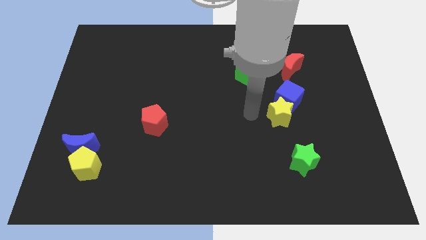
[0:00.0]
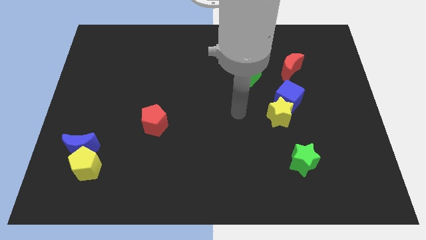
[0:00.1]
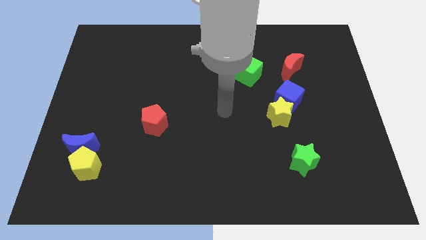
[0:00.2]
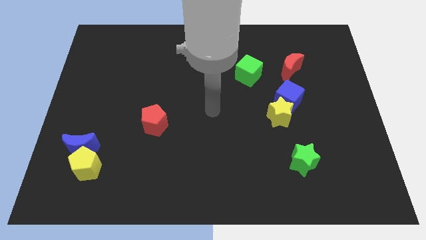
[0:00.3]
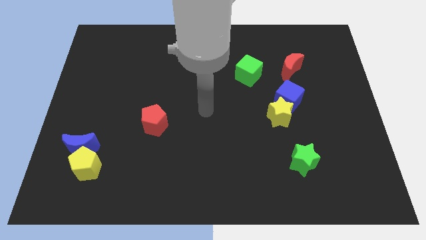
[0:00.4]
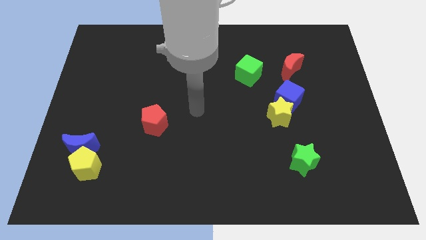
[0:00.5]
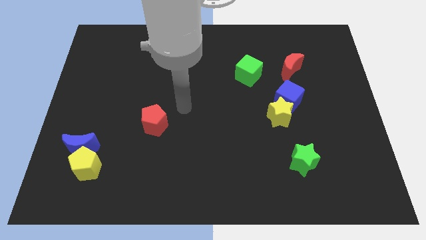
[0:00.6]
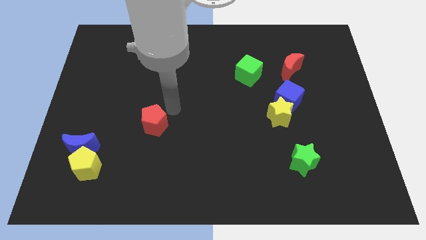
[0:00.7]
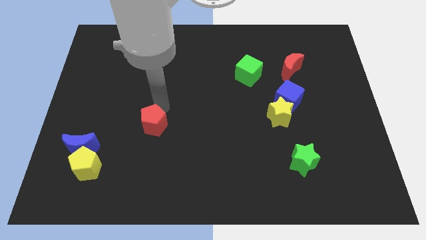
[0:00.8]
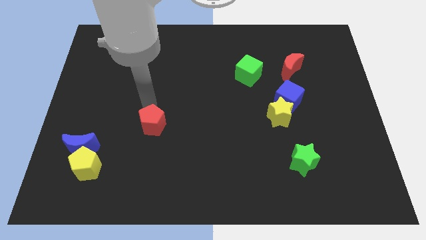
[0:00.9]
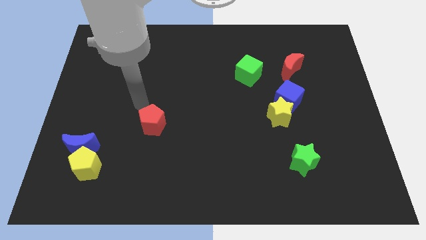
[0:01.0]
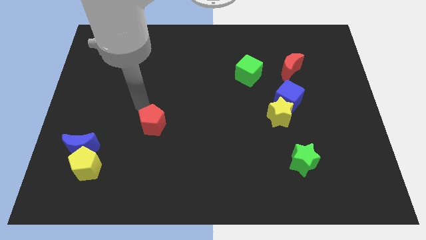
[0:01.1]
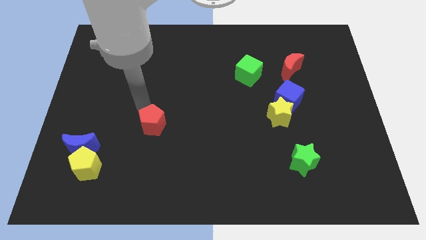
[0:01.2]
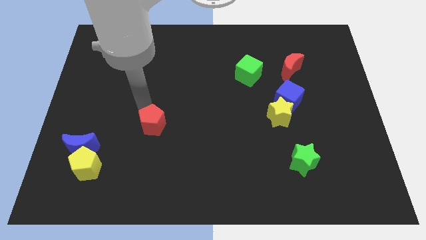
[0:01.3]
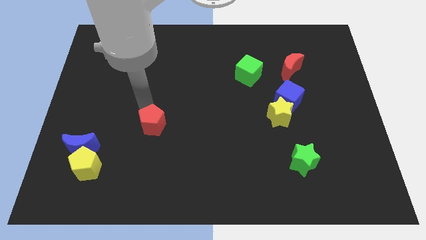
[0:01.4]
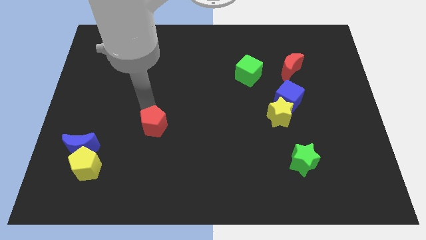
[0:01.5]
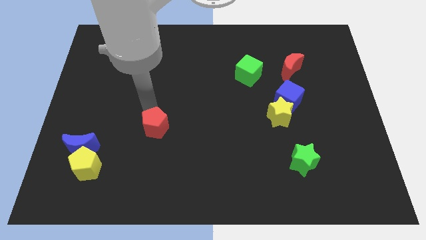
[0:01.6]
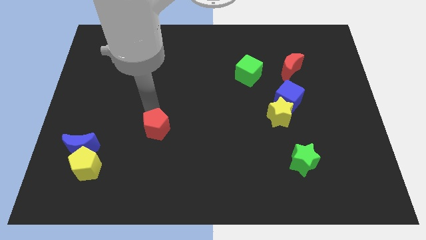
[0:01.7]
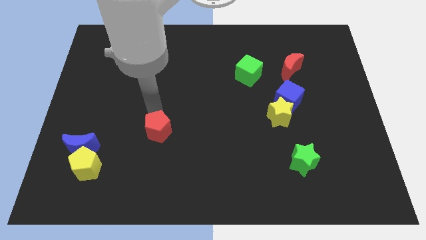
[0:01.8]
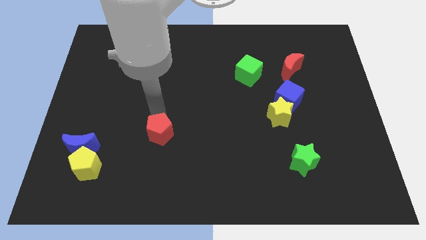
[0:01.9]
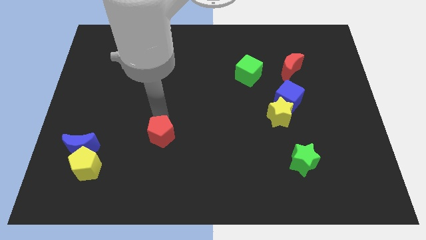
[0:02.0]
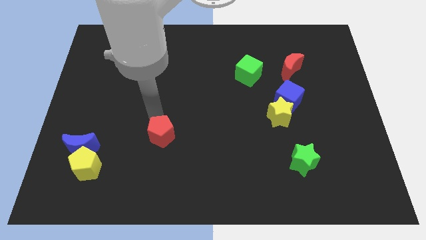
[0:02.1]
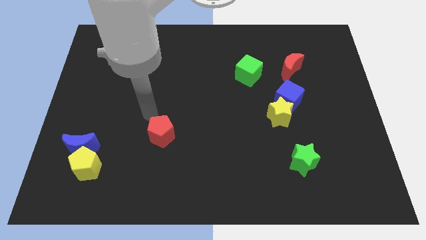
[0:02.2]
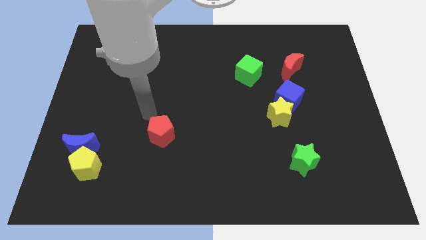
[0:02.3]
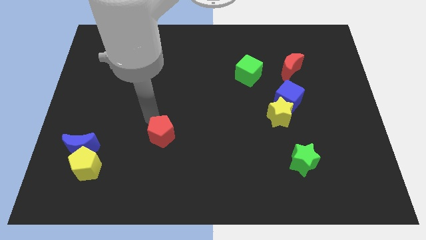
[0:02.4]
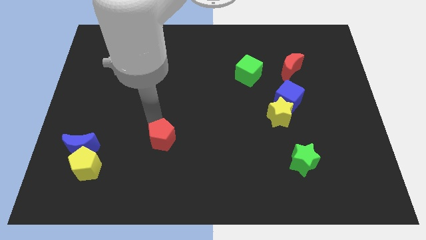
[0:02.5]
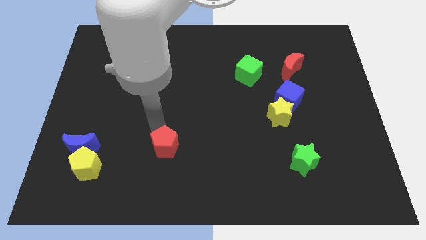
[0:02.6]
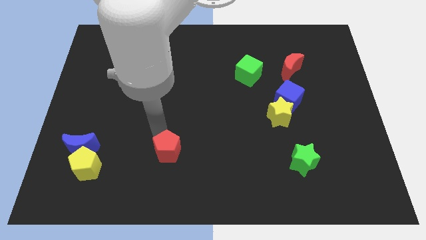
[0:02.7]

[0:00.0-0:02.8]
slightly slide the red pentagon down and then to the right

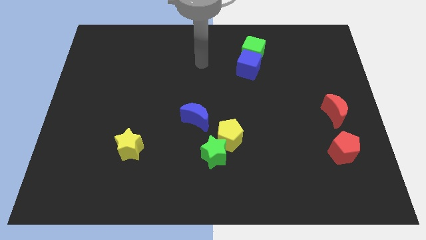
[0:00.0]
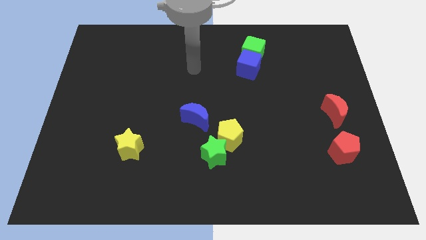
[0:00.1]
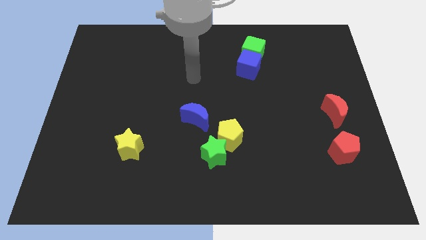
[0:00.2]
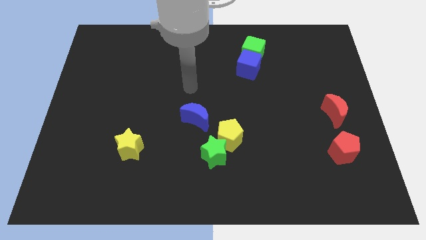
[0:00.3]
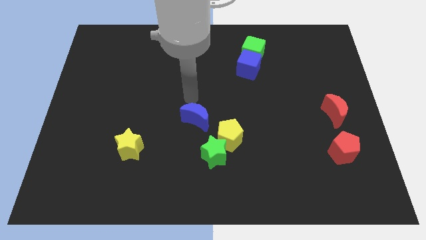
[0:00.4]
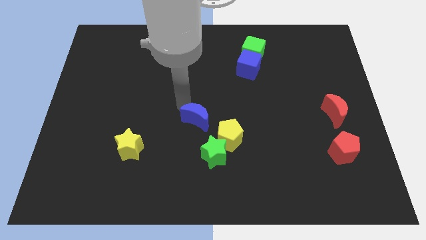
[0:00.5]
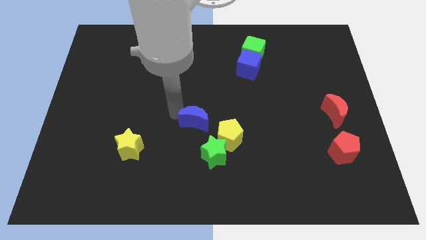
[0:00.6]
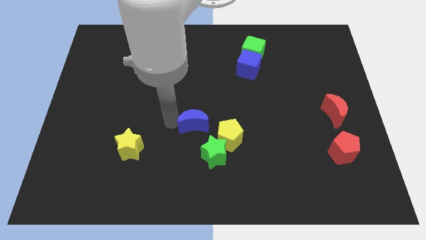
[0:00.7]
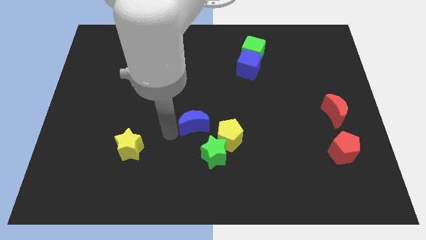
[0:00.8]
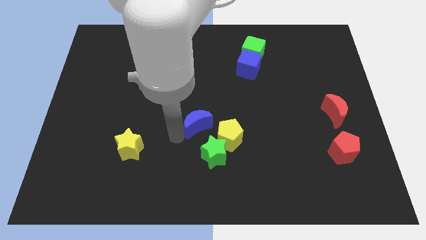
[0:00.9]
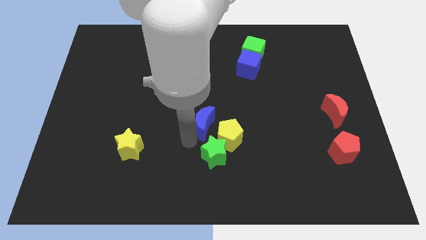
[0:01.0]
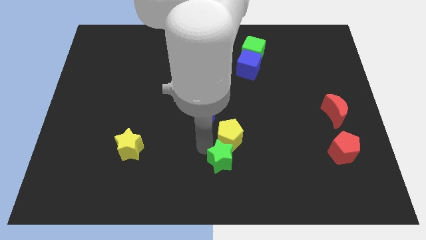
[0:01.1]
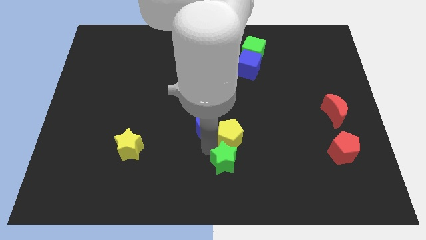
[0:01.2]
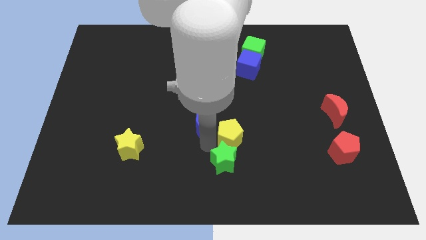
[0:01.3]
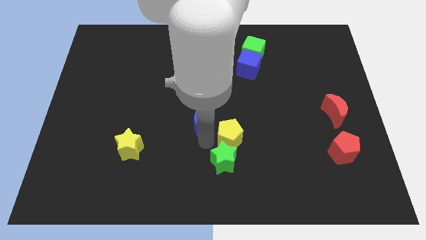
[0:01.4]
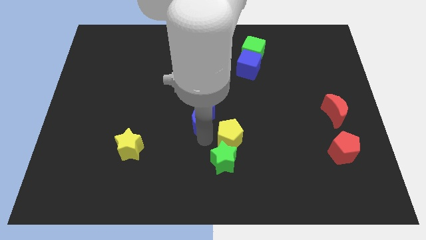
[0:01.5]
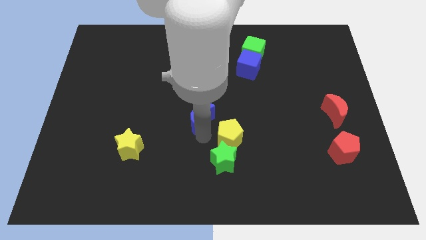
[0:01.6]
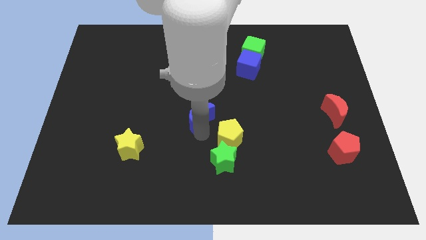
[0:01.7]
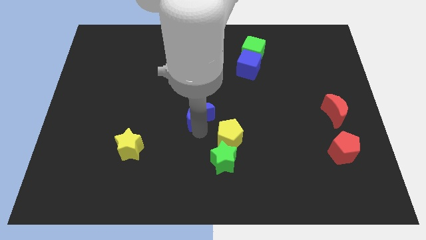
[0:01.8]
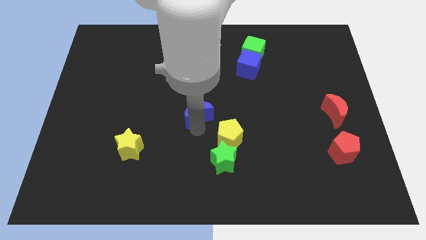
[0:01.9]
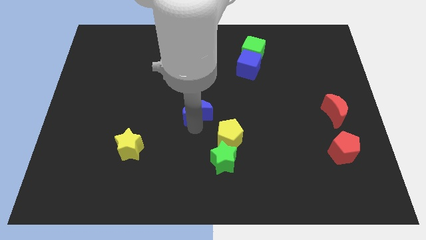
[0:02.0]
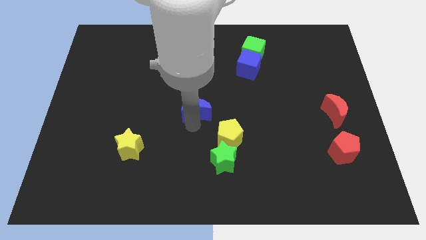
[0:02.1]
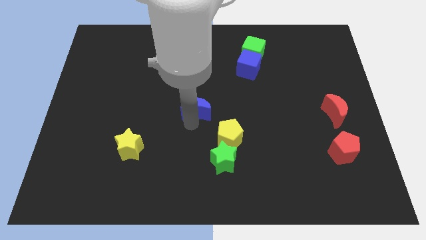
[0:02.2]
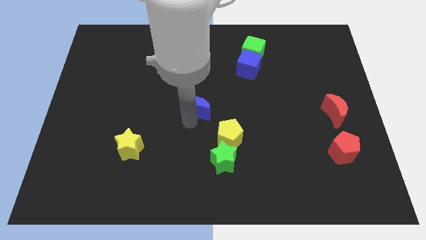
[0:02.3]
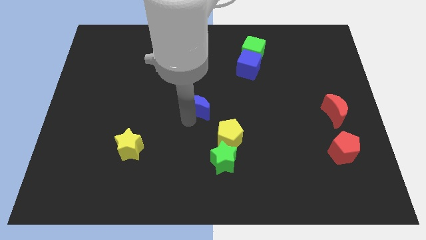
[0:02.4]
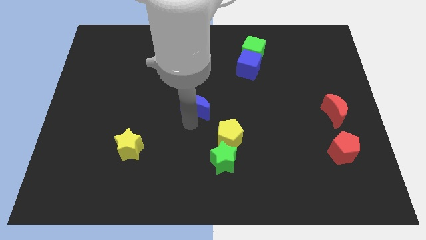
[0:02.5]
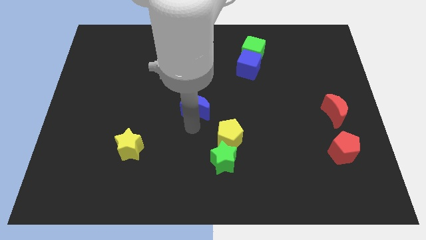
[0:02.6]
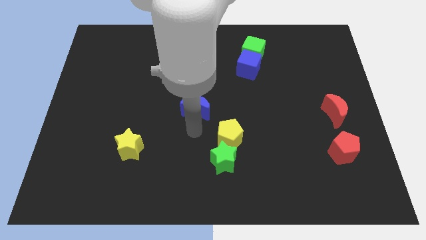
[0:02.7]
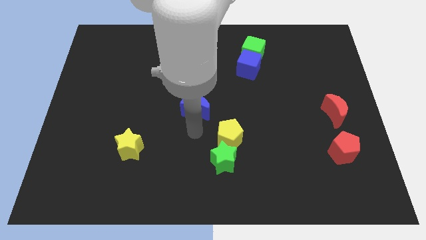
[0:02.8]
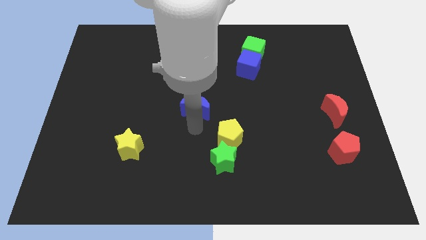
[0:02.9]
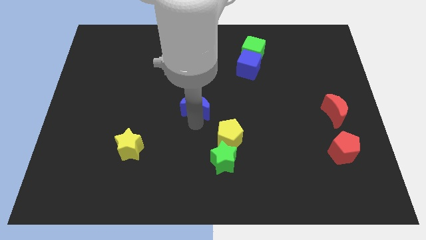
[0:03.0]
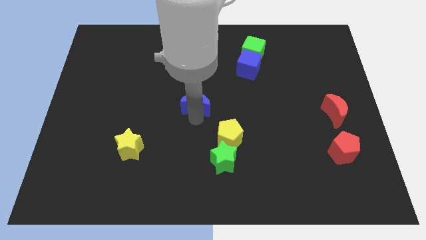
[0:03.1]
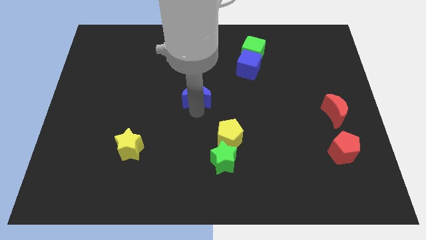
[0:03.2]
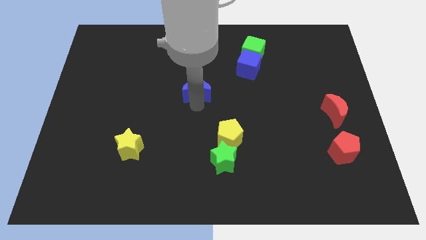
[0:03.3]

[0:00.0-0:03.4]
move the blue moon a little upwards

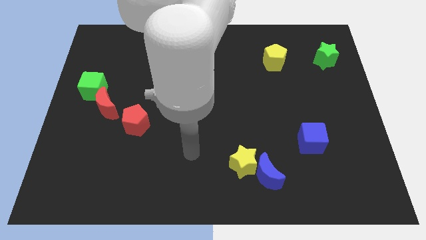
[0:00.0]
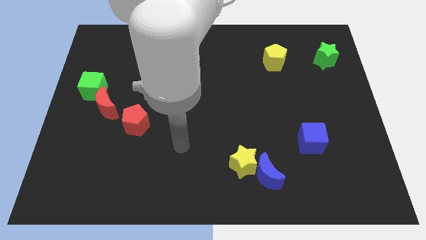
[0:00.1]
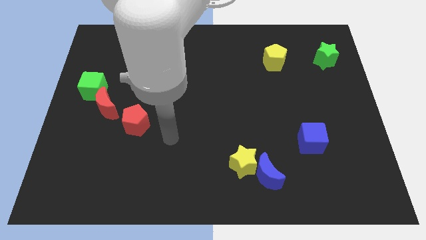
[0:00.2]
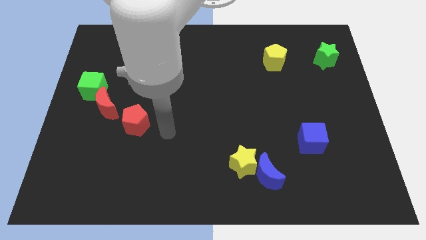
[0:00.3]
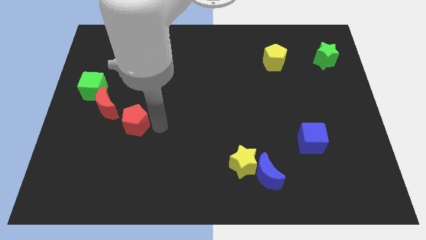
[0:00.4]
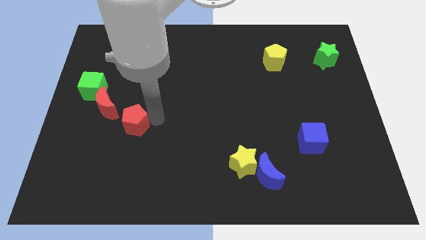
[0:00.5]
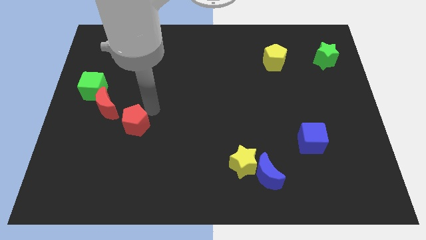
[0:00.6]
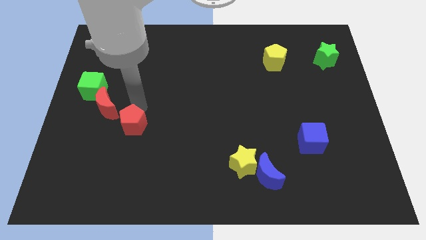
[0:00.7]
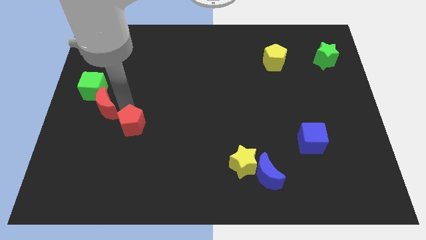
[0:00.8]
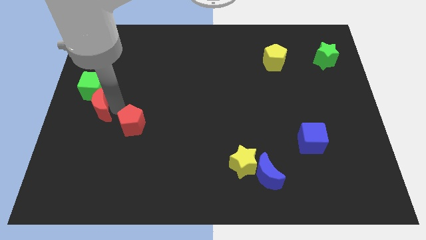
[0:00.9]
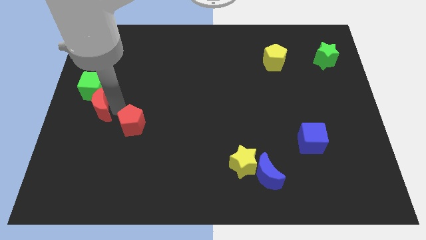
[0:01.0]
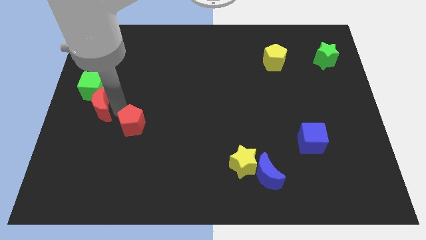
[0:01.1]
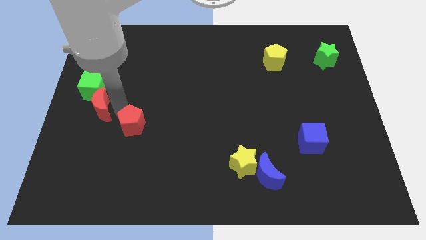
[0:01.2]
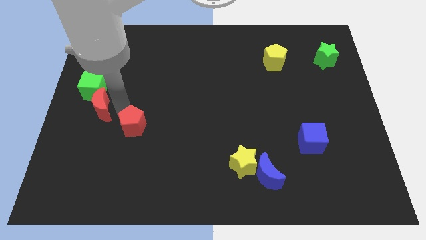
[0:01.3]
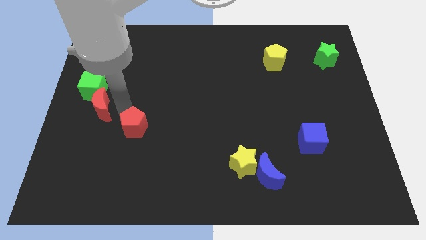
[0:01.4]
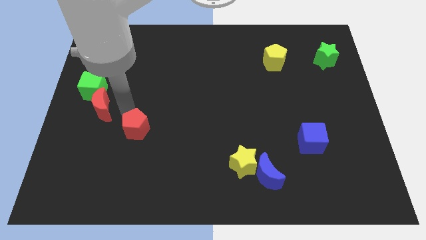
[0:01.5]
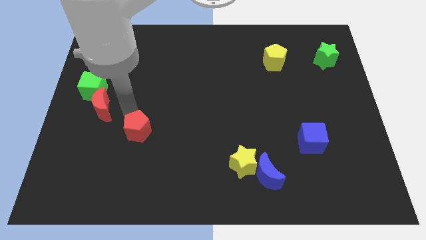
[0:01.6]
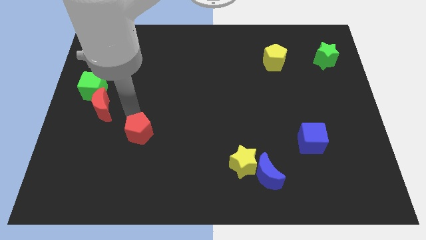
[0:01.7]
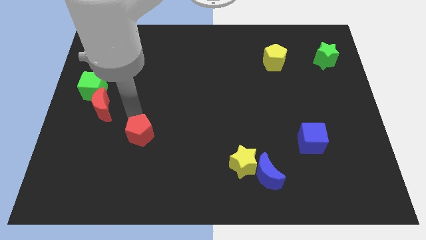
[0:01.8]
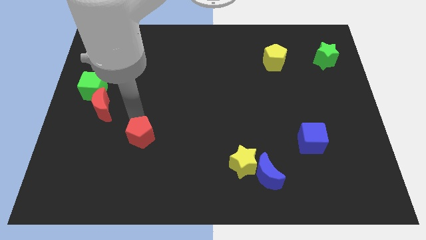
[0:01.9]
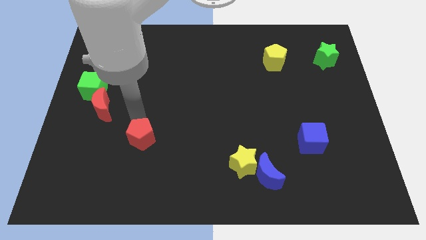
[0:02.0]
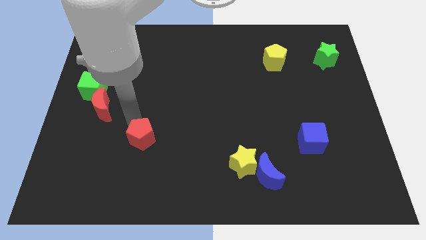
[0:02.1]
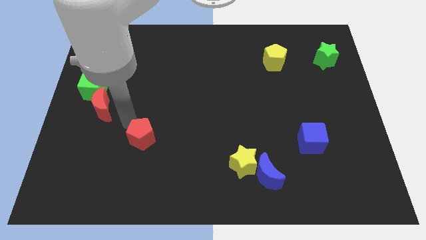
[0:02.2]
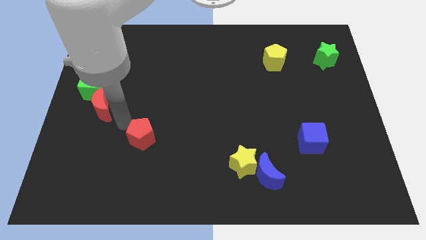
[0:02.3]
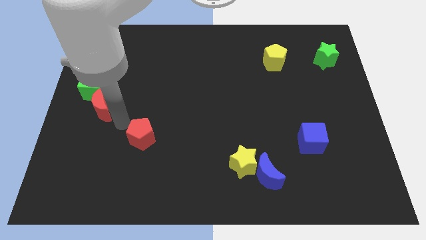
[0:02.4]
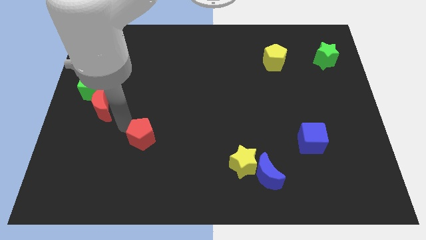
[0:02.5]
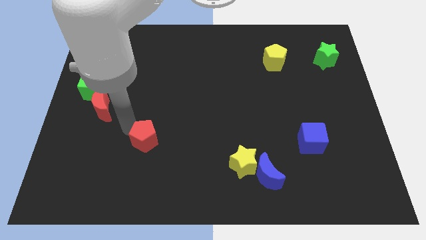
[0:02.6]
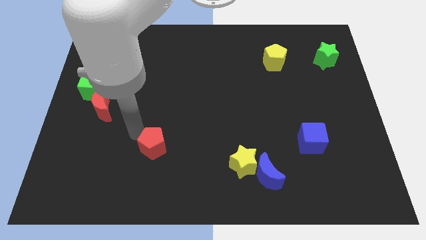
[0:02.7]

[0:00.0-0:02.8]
slightly slide the red pentagon diagonally down and to the right
